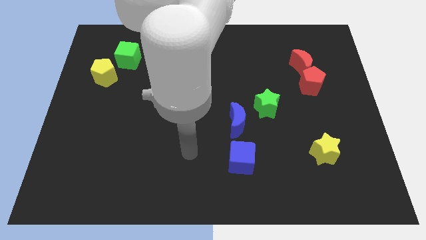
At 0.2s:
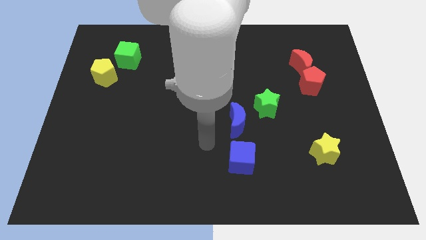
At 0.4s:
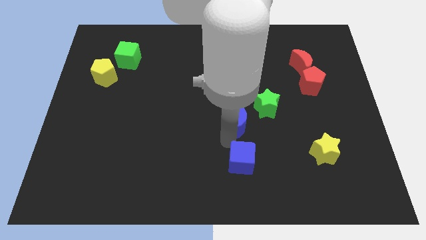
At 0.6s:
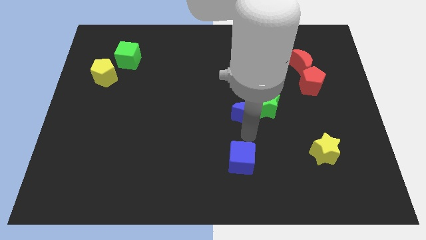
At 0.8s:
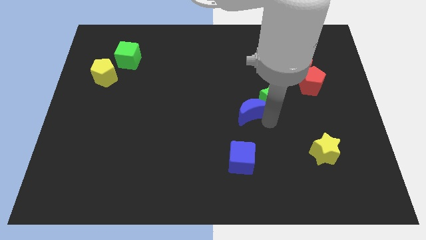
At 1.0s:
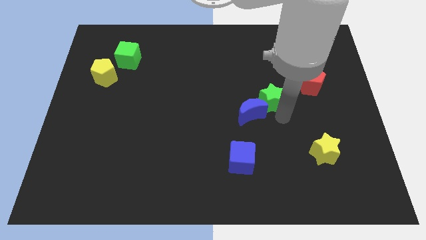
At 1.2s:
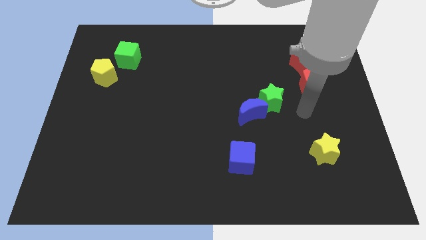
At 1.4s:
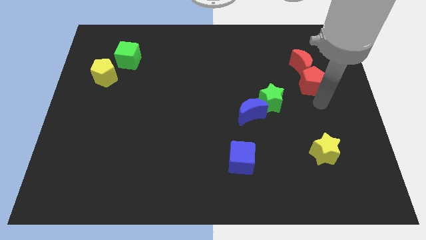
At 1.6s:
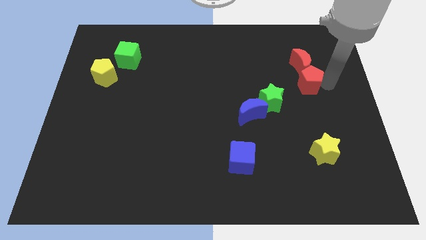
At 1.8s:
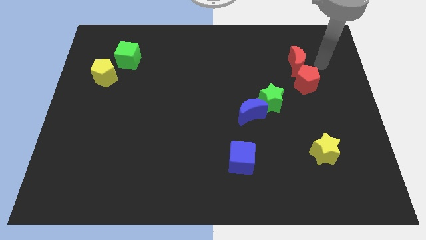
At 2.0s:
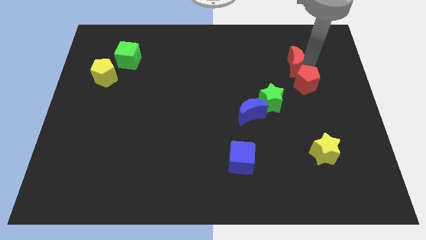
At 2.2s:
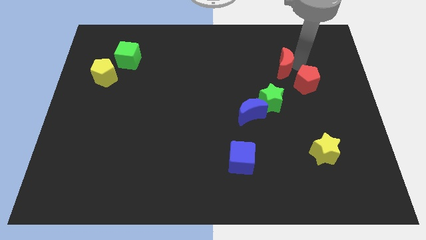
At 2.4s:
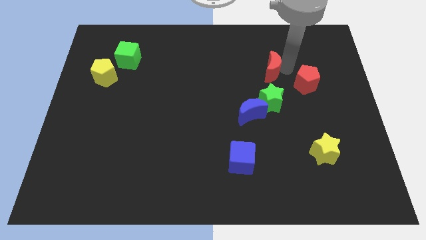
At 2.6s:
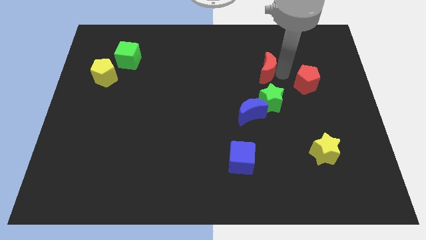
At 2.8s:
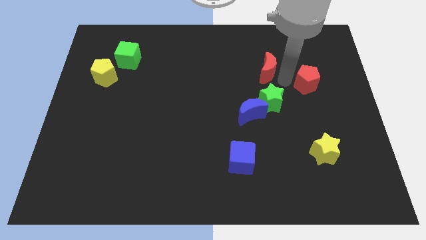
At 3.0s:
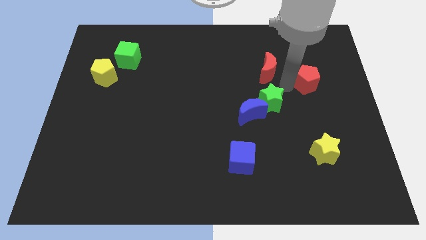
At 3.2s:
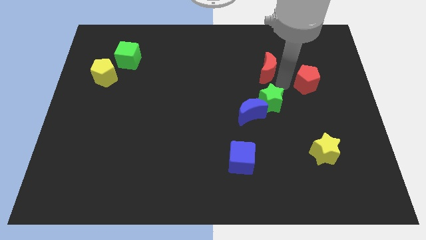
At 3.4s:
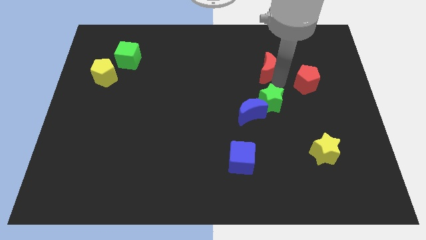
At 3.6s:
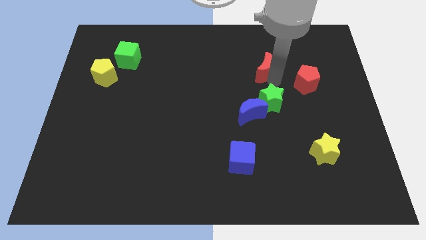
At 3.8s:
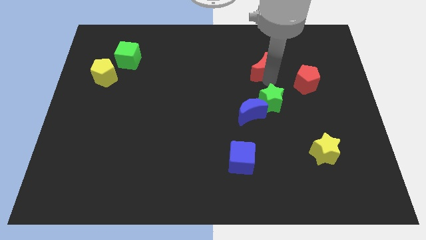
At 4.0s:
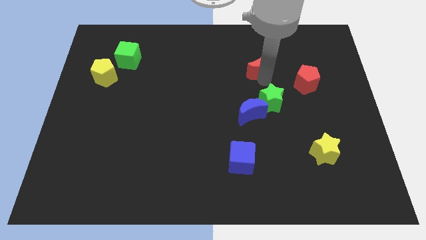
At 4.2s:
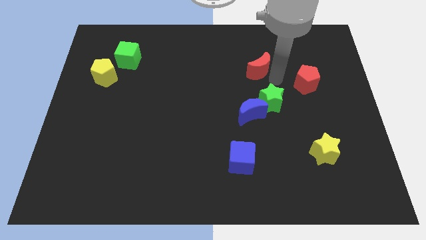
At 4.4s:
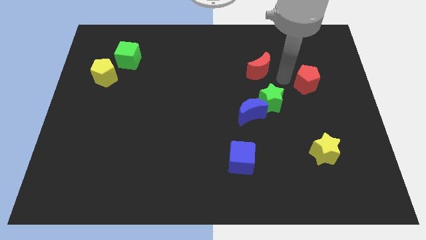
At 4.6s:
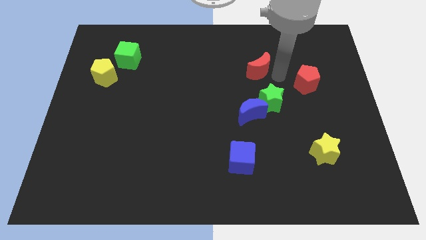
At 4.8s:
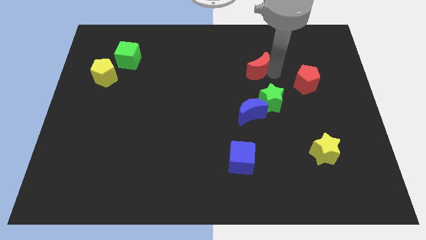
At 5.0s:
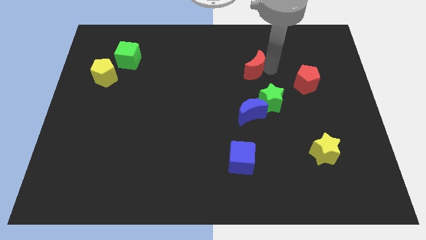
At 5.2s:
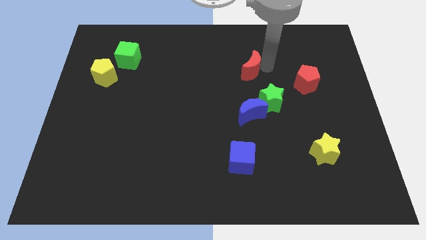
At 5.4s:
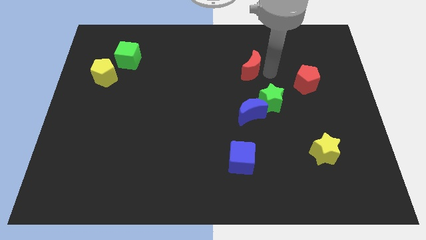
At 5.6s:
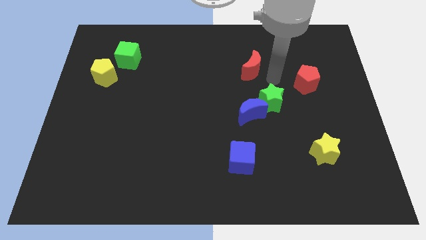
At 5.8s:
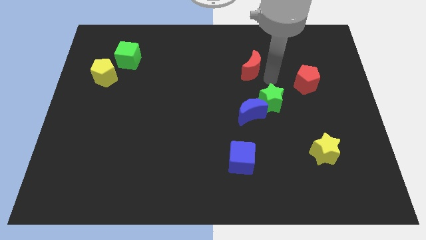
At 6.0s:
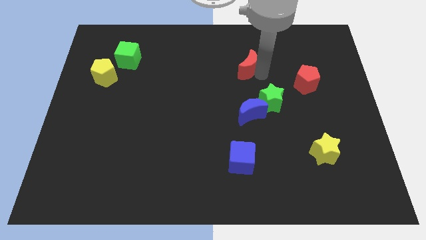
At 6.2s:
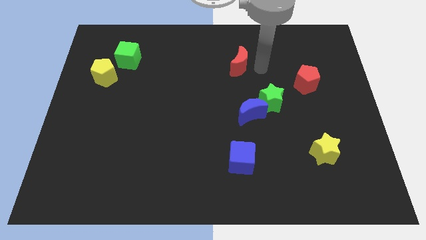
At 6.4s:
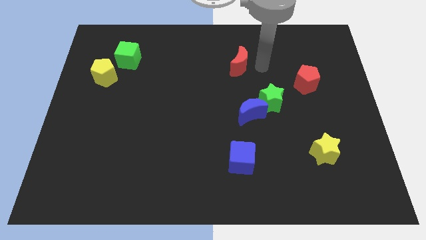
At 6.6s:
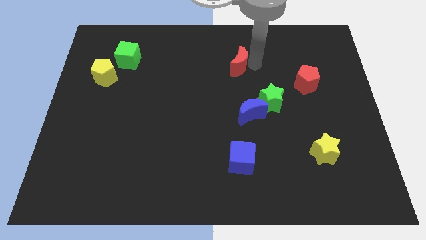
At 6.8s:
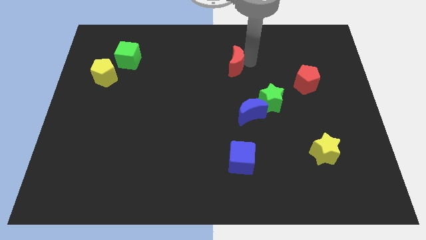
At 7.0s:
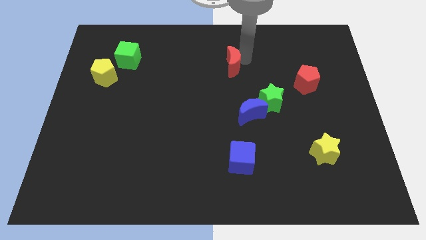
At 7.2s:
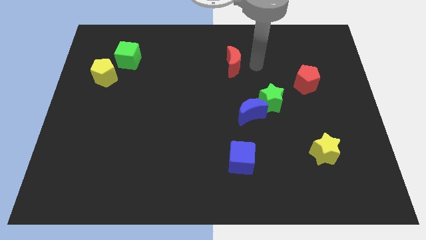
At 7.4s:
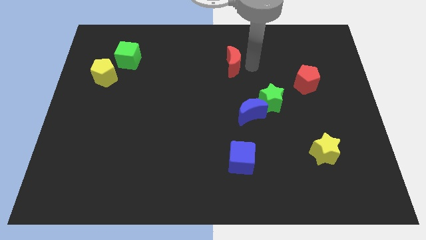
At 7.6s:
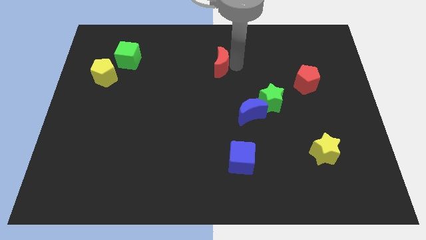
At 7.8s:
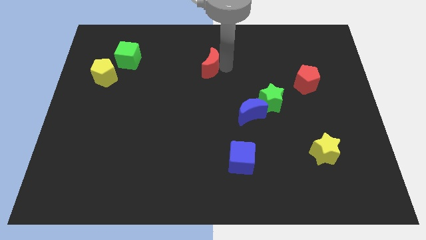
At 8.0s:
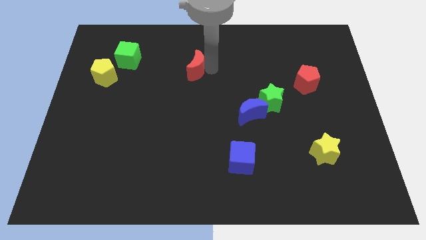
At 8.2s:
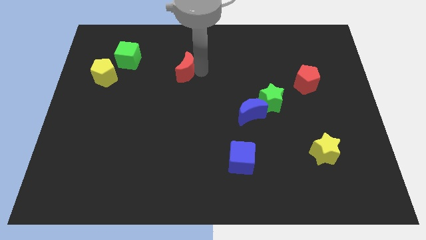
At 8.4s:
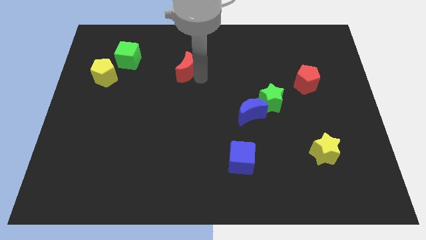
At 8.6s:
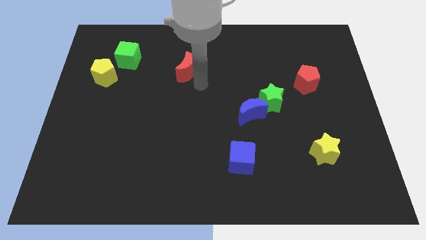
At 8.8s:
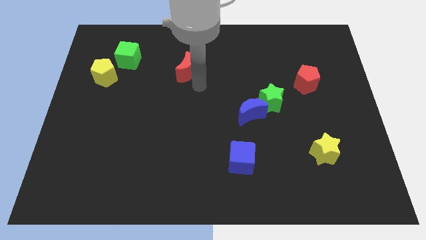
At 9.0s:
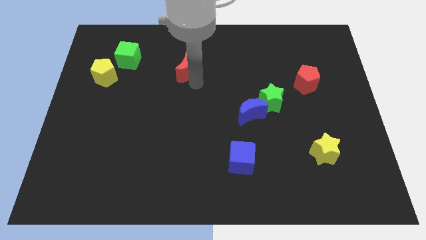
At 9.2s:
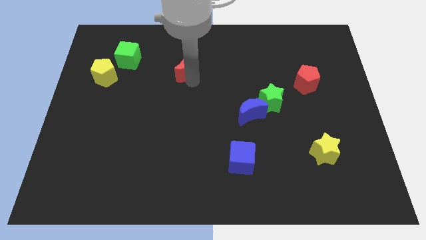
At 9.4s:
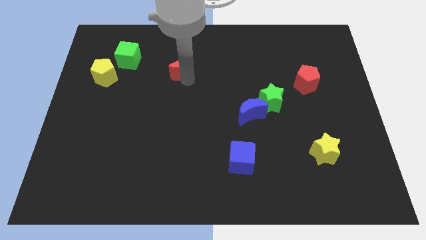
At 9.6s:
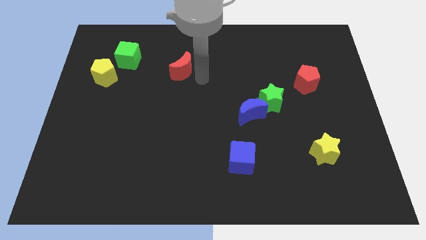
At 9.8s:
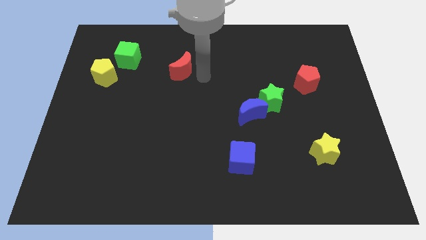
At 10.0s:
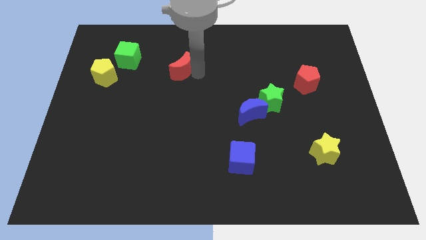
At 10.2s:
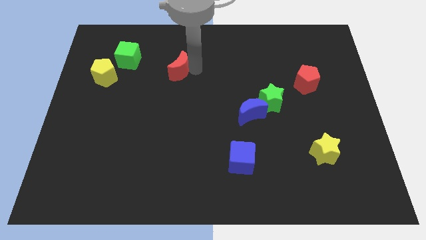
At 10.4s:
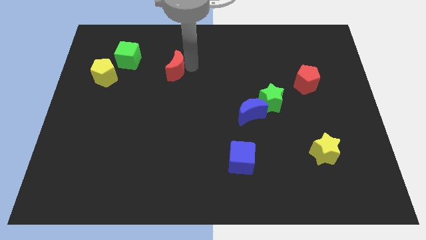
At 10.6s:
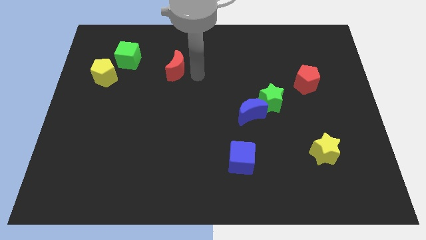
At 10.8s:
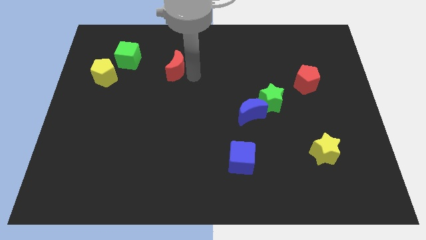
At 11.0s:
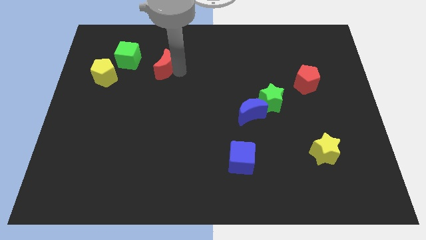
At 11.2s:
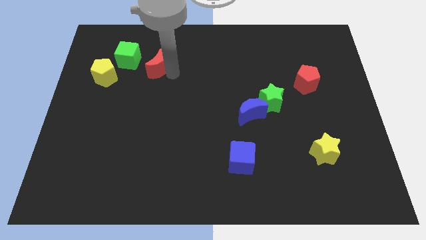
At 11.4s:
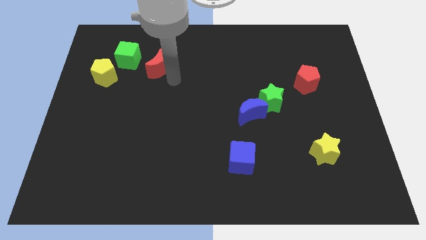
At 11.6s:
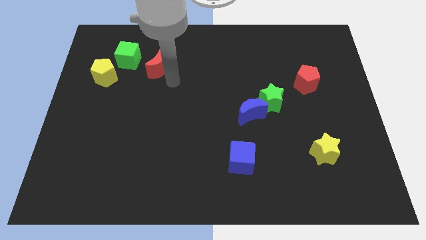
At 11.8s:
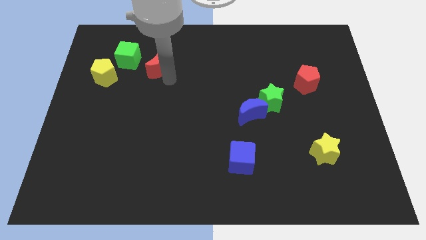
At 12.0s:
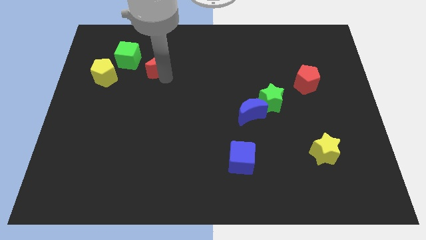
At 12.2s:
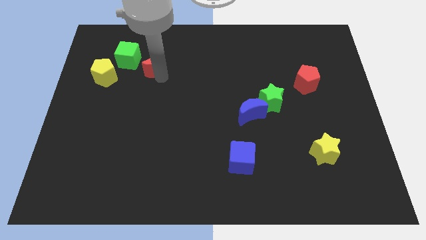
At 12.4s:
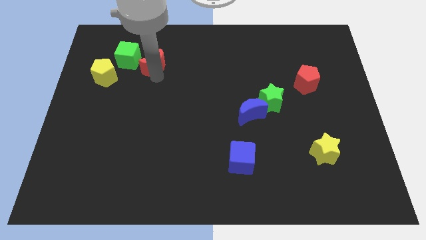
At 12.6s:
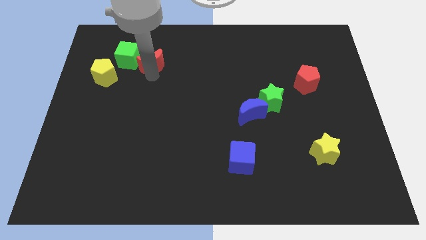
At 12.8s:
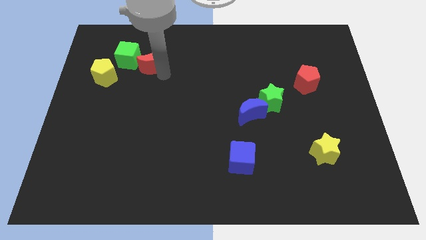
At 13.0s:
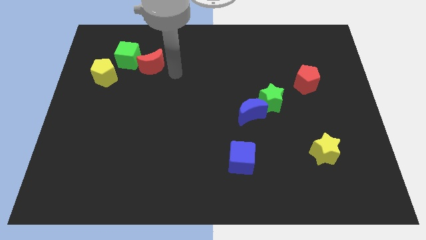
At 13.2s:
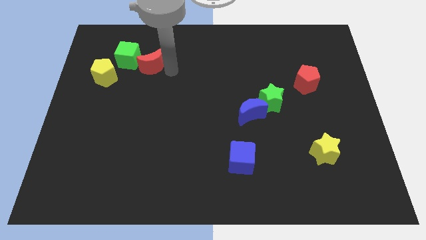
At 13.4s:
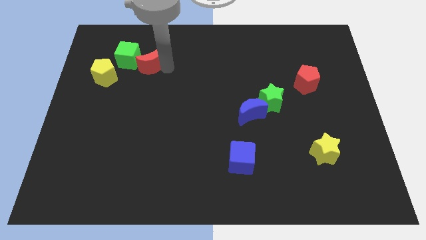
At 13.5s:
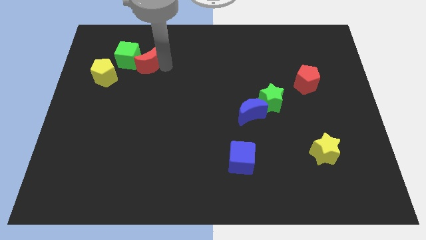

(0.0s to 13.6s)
put the red moon next to the green cube

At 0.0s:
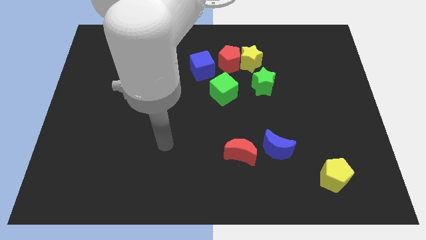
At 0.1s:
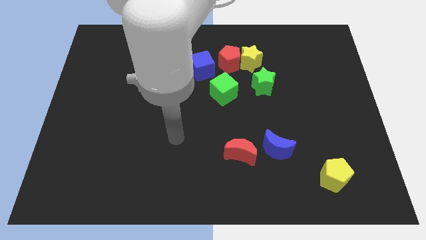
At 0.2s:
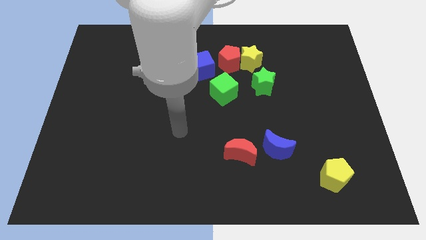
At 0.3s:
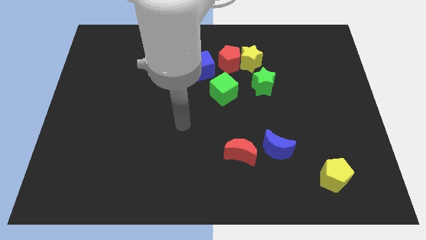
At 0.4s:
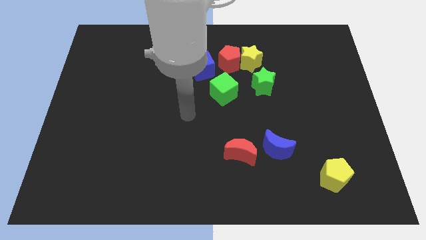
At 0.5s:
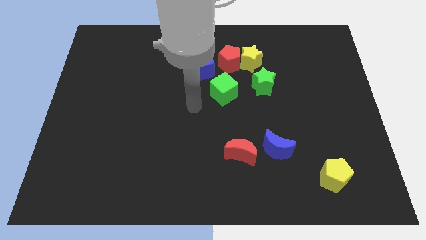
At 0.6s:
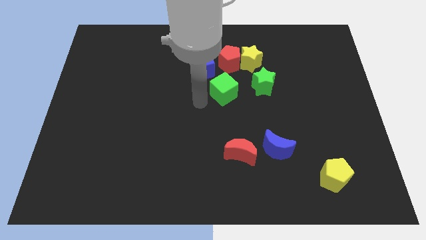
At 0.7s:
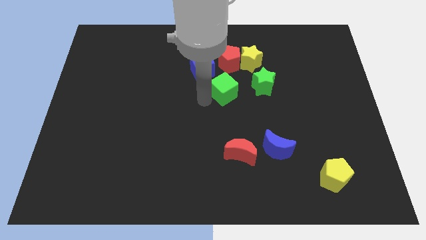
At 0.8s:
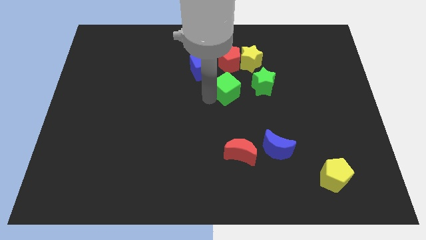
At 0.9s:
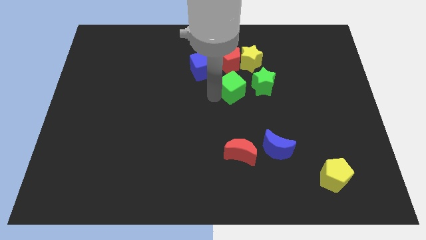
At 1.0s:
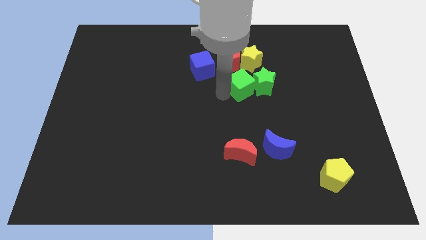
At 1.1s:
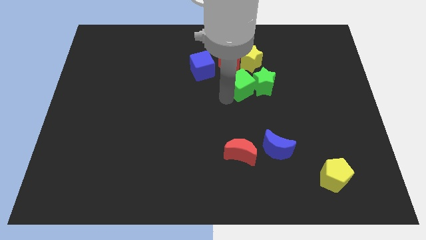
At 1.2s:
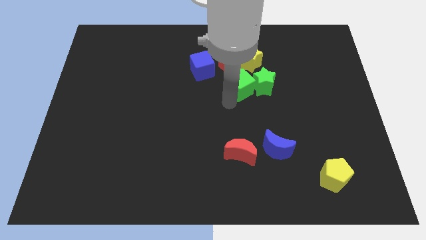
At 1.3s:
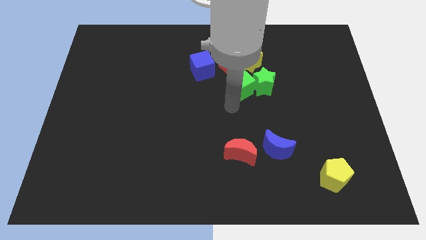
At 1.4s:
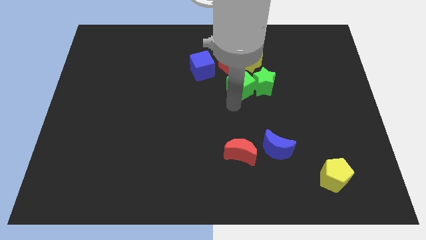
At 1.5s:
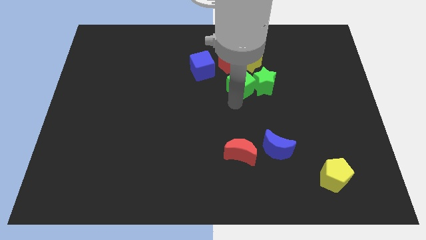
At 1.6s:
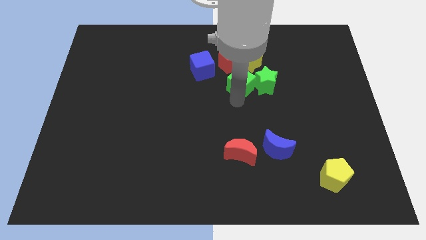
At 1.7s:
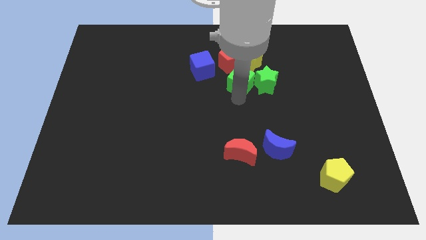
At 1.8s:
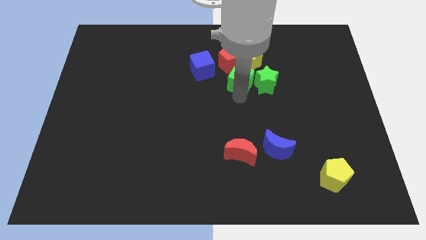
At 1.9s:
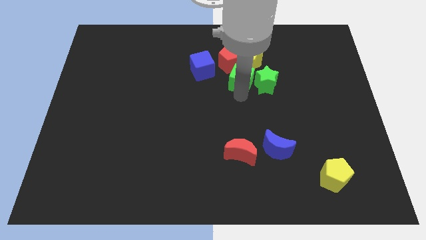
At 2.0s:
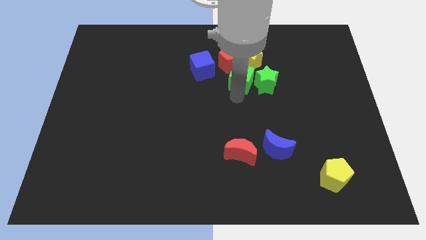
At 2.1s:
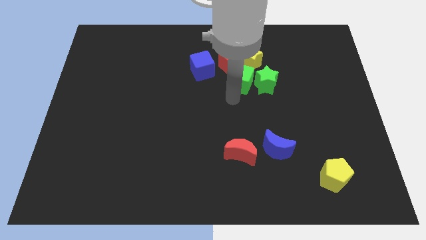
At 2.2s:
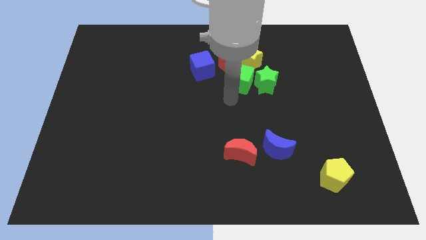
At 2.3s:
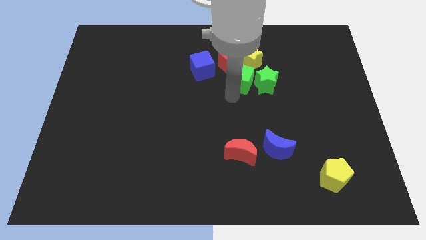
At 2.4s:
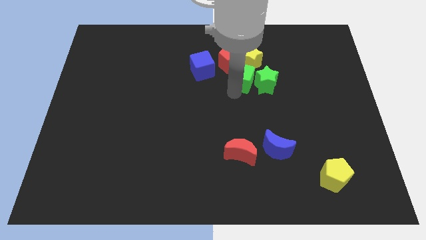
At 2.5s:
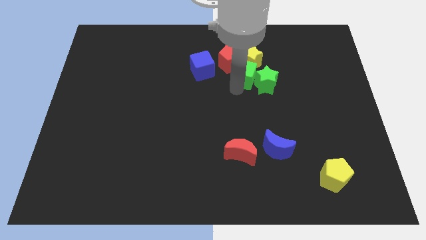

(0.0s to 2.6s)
slide the green cube towards the yellow star
